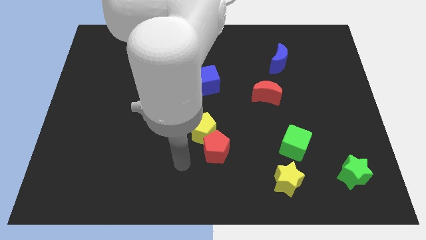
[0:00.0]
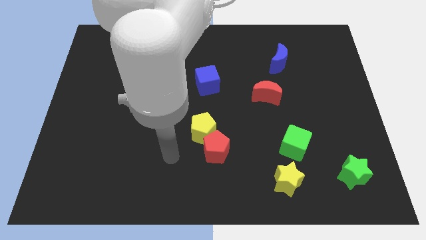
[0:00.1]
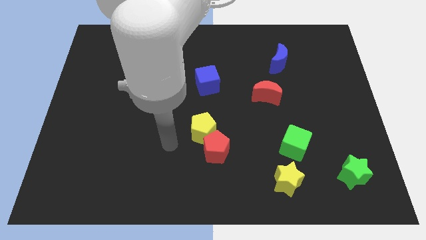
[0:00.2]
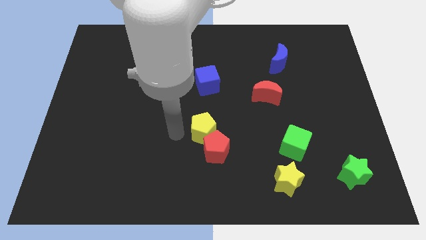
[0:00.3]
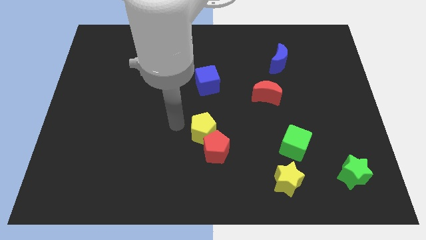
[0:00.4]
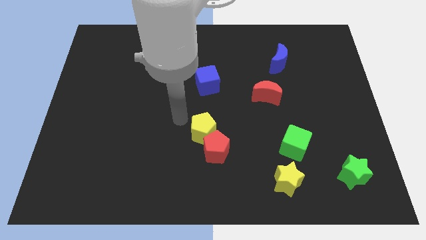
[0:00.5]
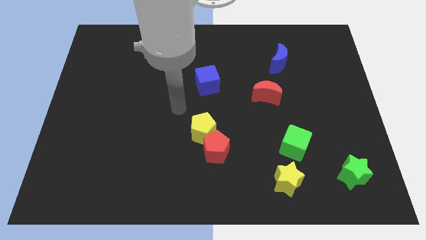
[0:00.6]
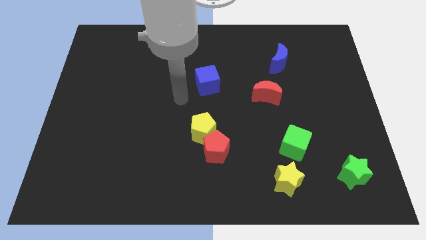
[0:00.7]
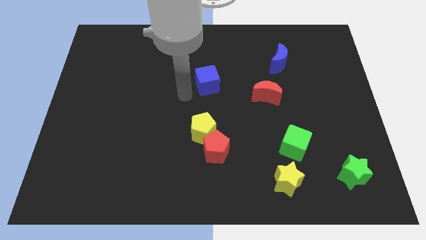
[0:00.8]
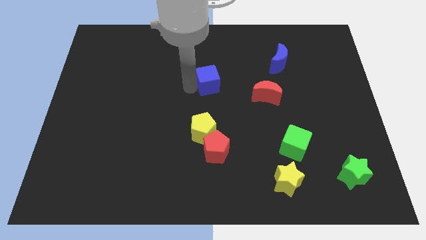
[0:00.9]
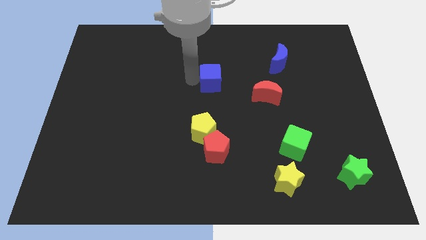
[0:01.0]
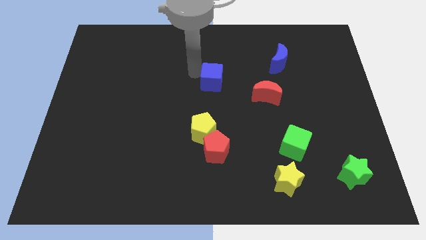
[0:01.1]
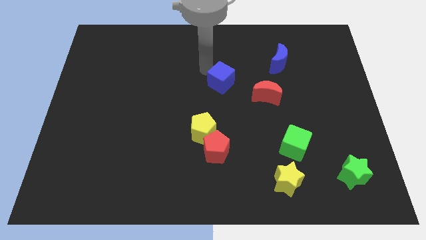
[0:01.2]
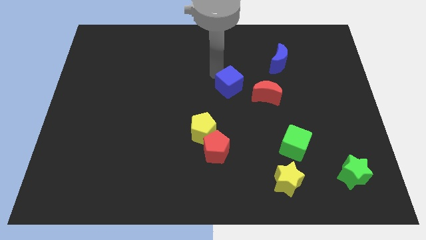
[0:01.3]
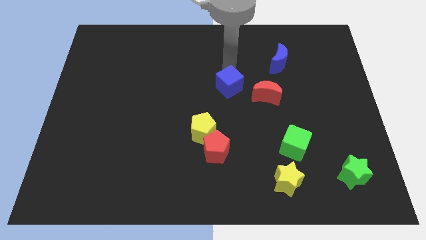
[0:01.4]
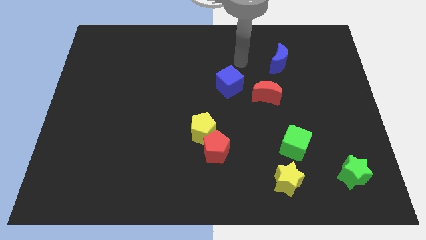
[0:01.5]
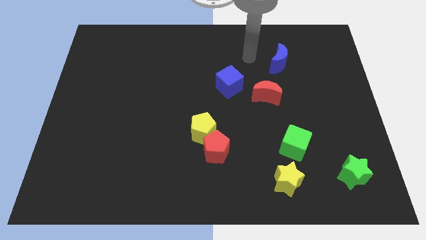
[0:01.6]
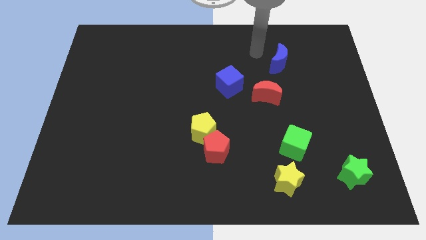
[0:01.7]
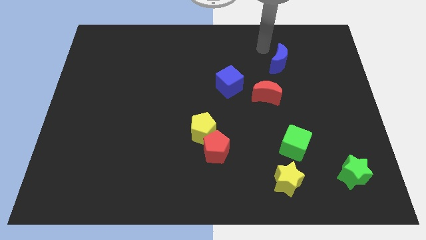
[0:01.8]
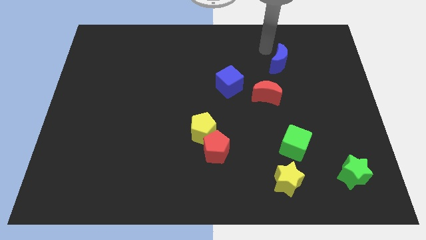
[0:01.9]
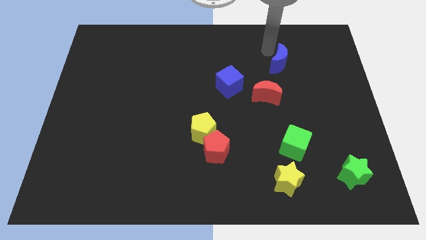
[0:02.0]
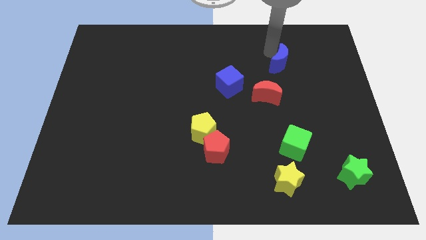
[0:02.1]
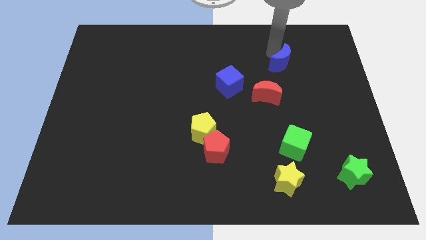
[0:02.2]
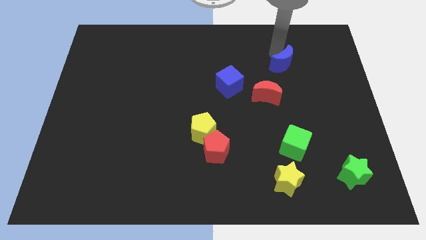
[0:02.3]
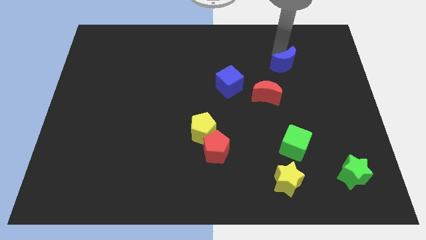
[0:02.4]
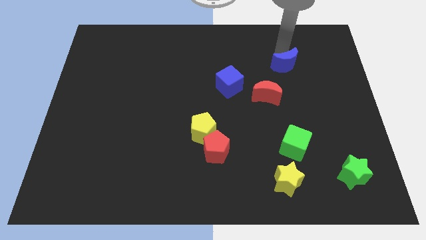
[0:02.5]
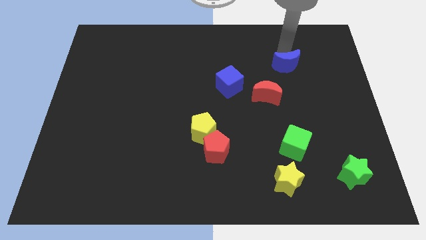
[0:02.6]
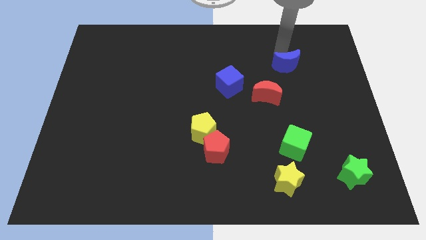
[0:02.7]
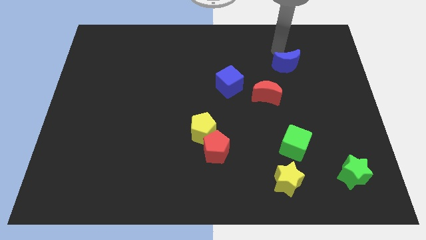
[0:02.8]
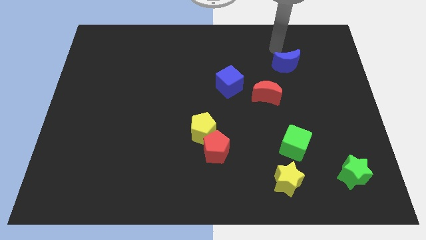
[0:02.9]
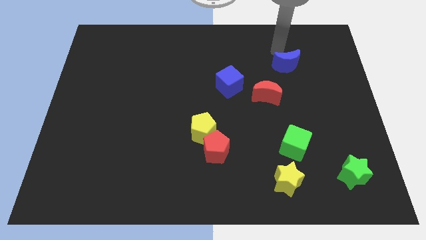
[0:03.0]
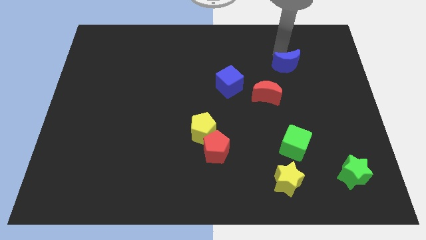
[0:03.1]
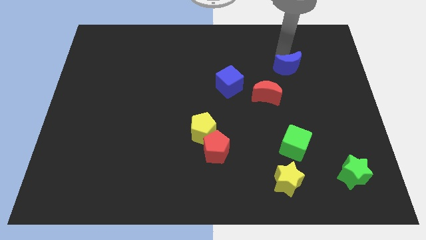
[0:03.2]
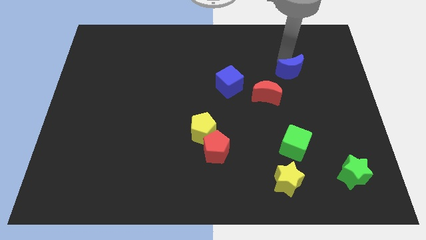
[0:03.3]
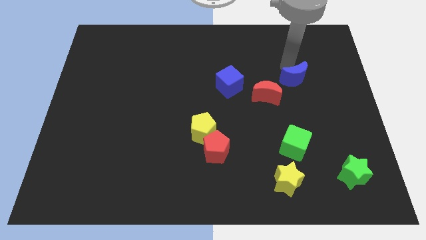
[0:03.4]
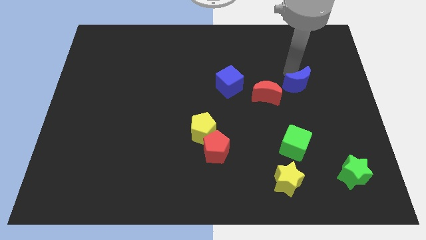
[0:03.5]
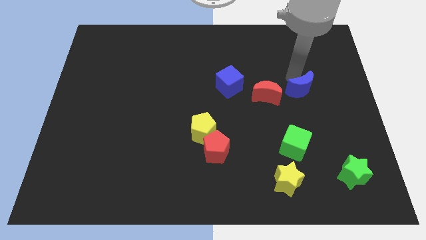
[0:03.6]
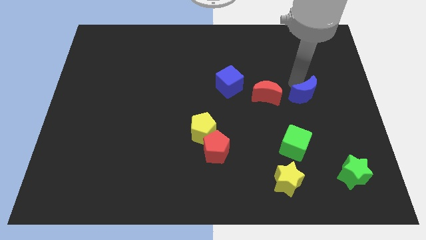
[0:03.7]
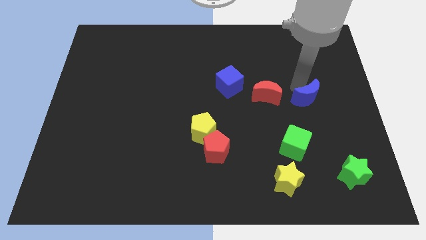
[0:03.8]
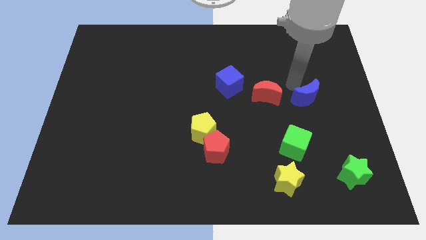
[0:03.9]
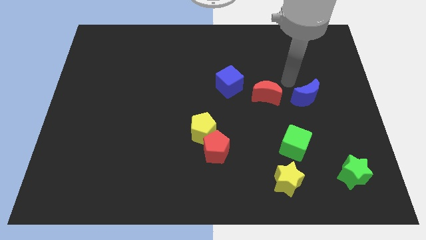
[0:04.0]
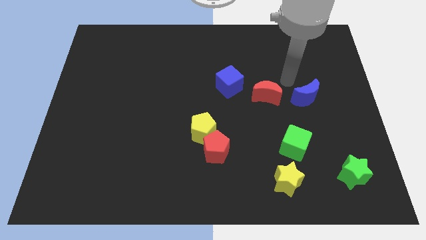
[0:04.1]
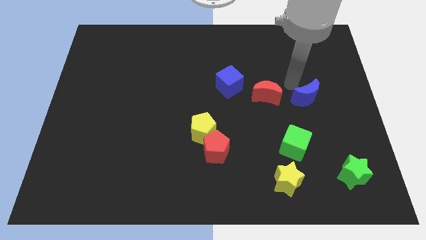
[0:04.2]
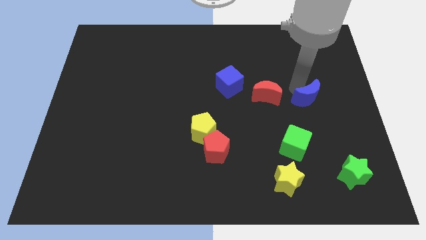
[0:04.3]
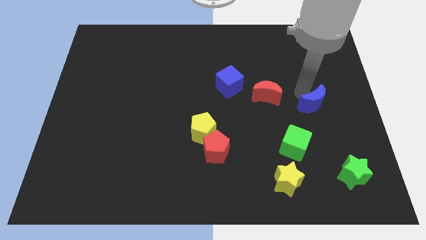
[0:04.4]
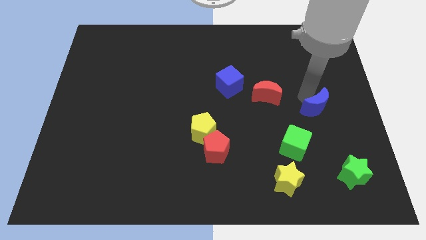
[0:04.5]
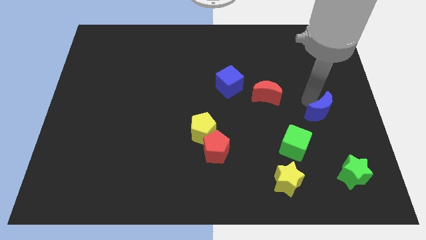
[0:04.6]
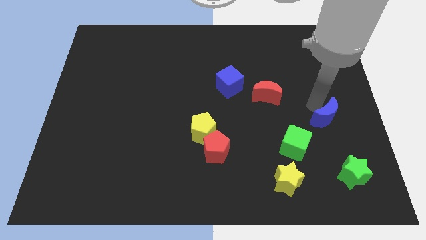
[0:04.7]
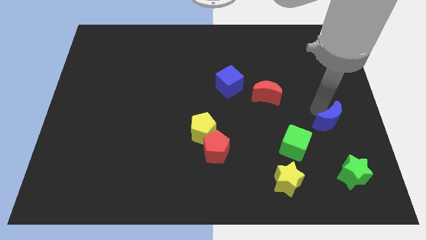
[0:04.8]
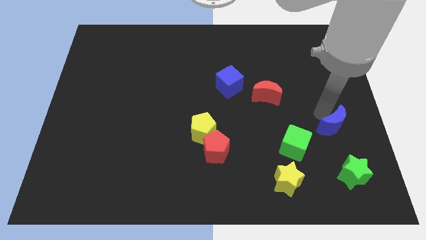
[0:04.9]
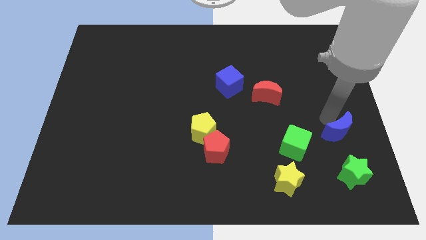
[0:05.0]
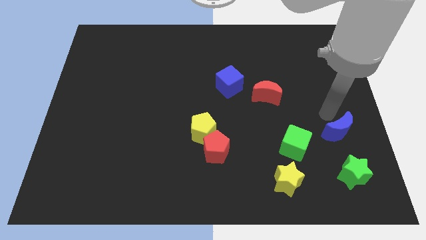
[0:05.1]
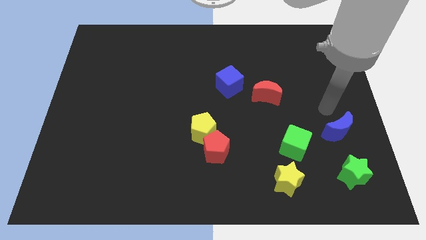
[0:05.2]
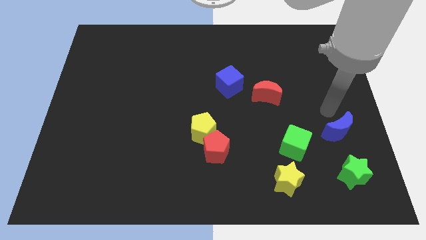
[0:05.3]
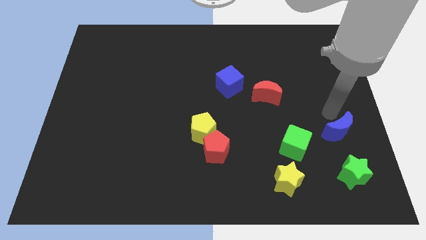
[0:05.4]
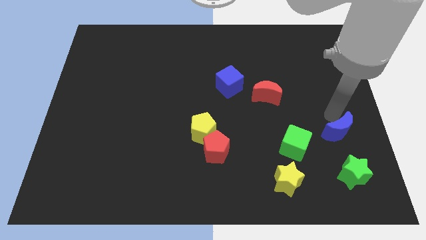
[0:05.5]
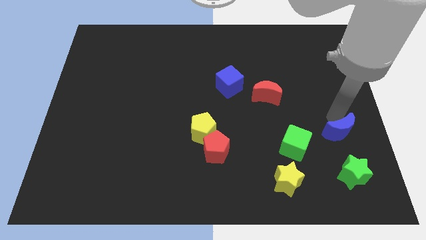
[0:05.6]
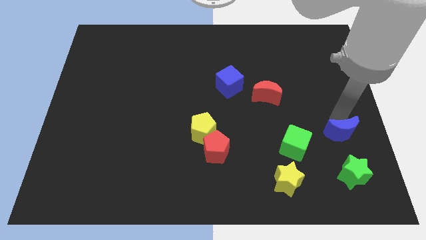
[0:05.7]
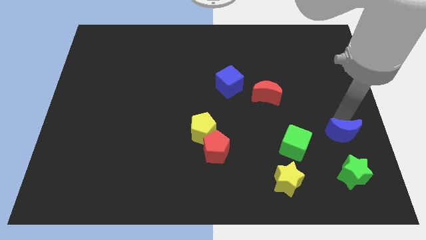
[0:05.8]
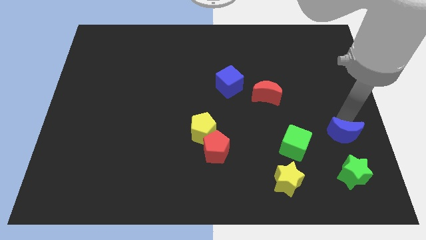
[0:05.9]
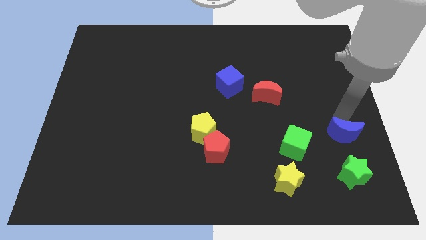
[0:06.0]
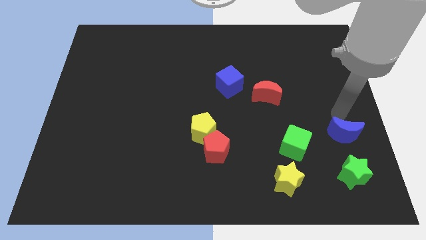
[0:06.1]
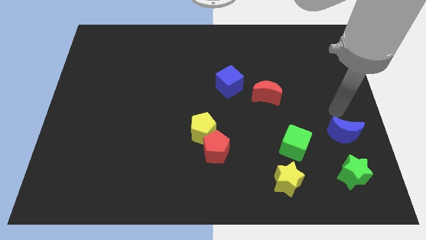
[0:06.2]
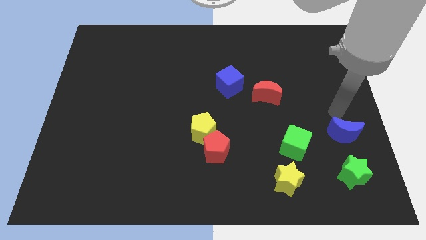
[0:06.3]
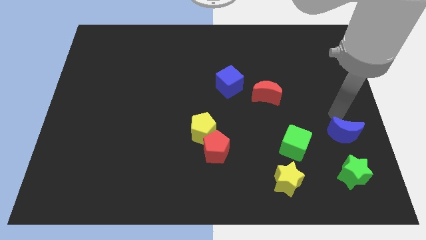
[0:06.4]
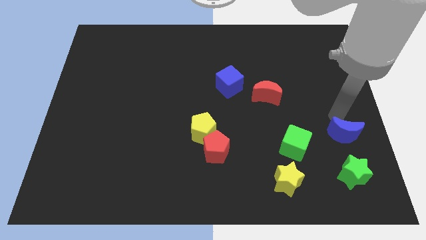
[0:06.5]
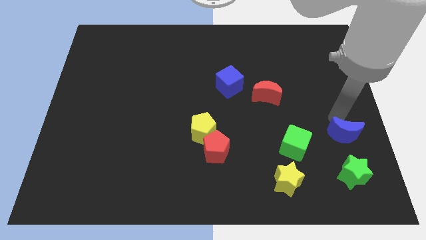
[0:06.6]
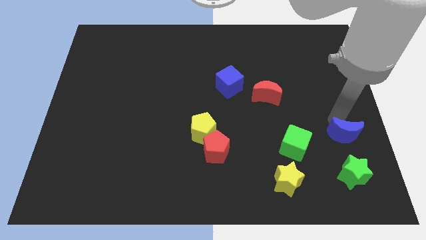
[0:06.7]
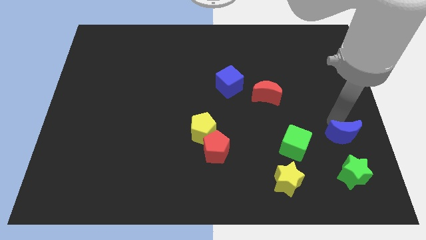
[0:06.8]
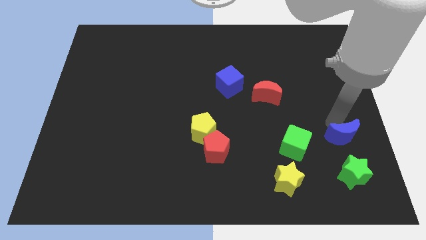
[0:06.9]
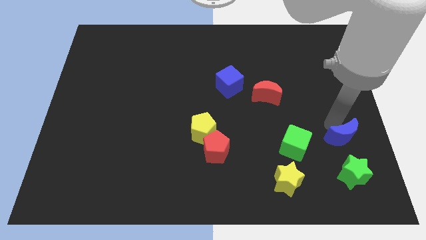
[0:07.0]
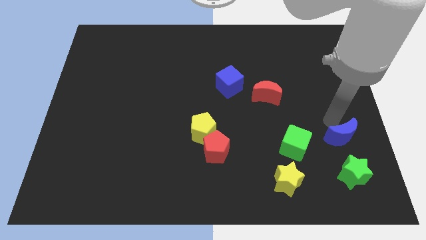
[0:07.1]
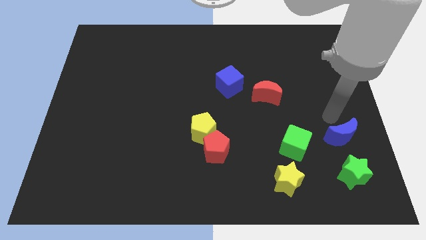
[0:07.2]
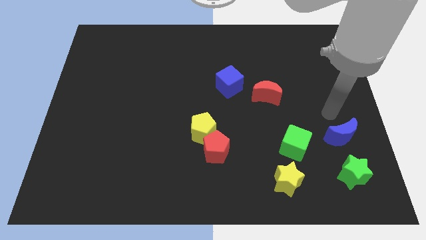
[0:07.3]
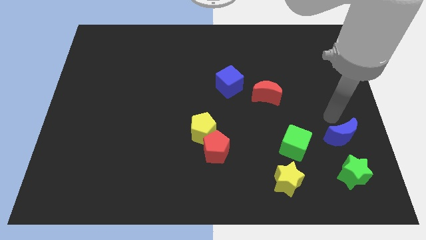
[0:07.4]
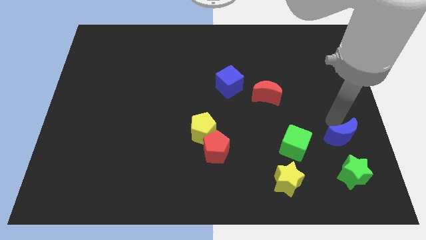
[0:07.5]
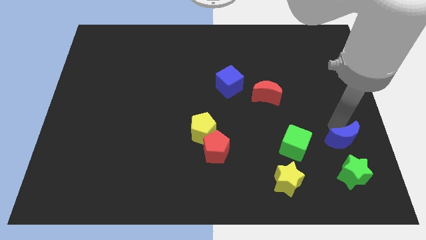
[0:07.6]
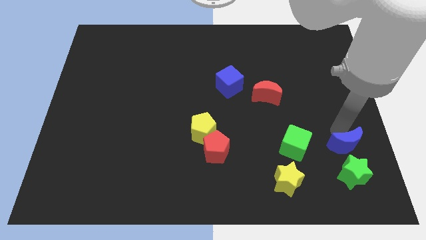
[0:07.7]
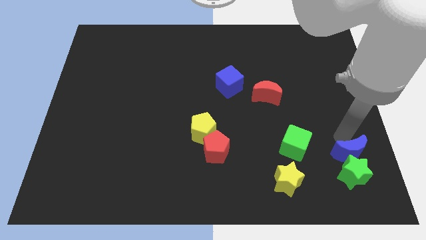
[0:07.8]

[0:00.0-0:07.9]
push the blue moon close to the green star
